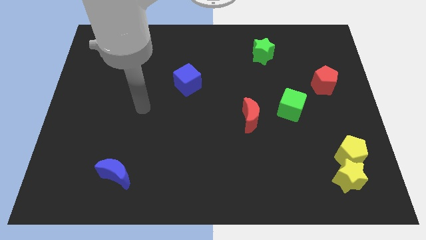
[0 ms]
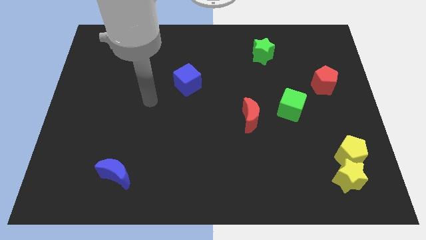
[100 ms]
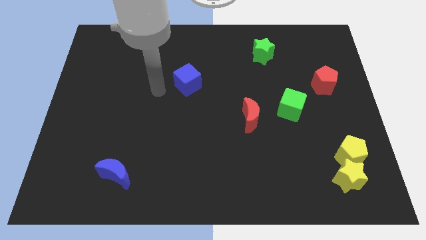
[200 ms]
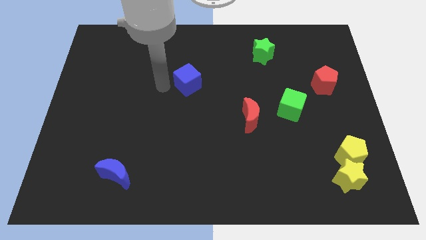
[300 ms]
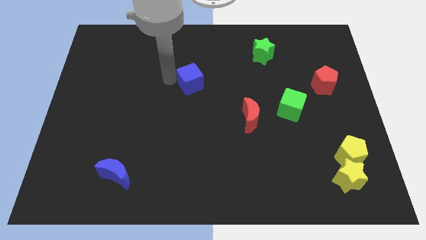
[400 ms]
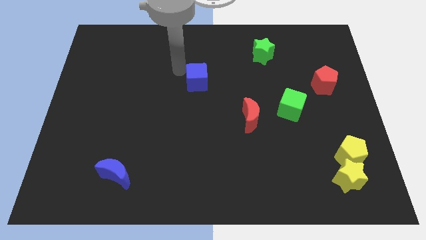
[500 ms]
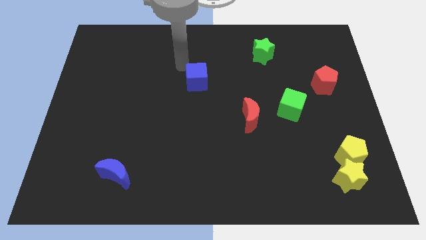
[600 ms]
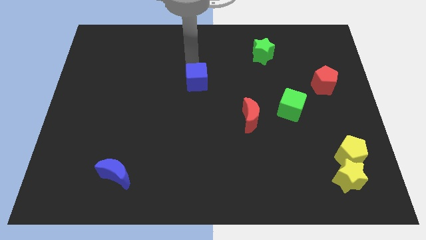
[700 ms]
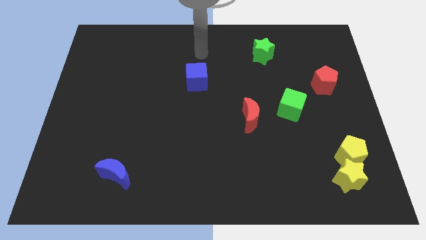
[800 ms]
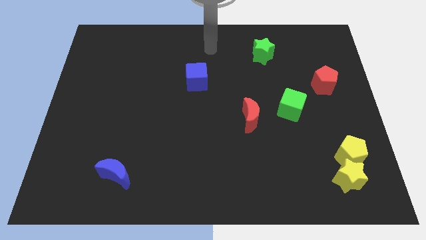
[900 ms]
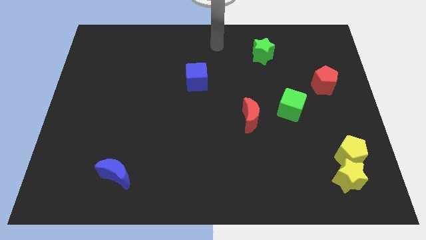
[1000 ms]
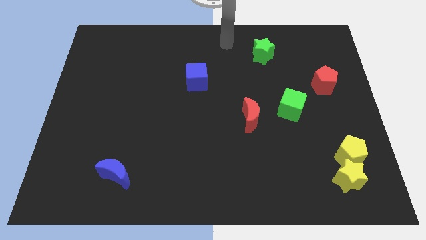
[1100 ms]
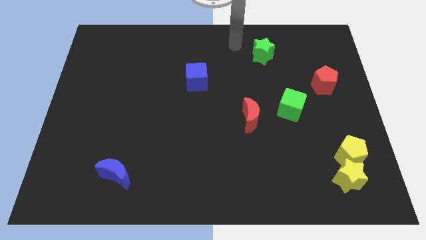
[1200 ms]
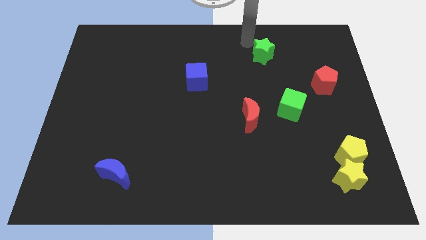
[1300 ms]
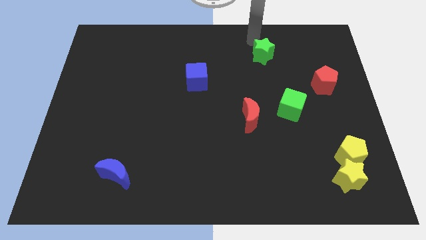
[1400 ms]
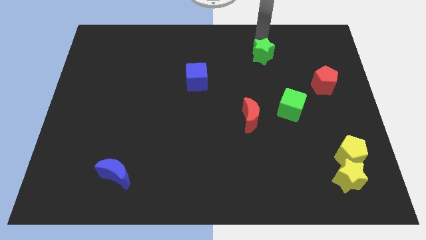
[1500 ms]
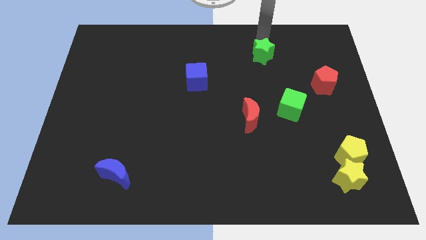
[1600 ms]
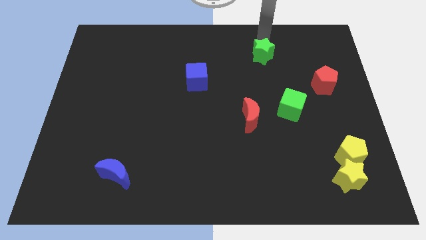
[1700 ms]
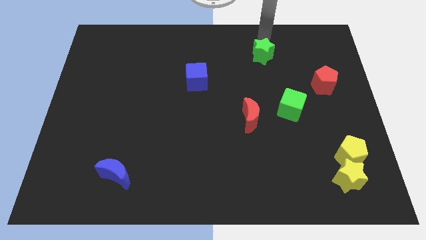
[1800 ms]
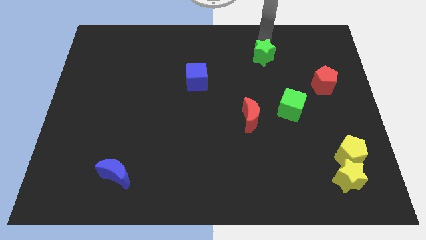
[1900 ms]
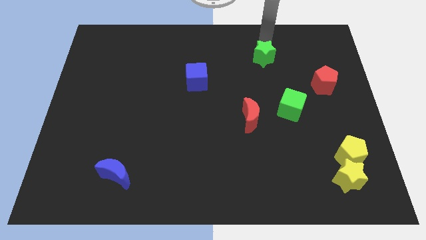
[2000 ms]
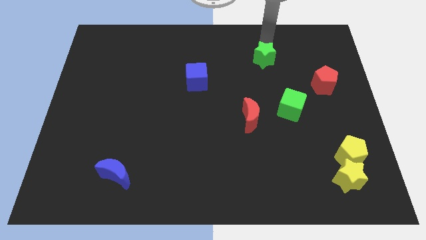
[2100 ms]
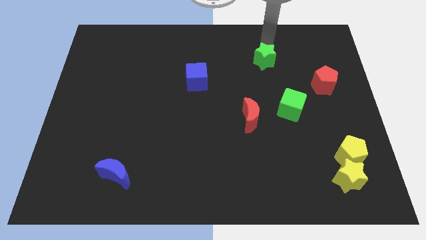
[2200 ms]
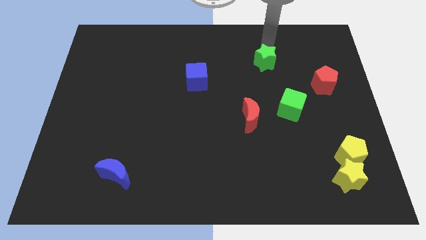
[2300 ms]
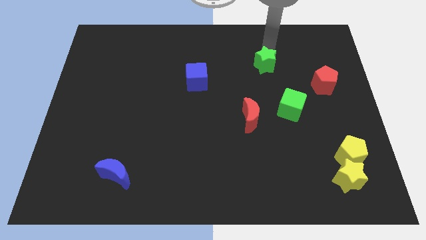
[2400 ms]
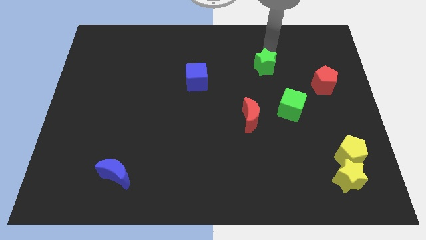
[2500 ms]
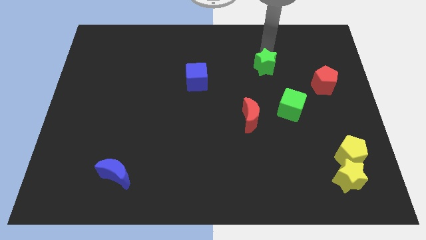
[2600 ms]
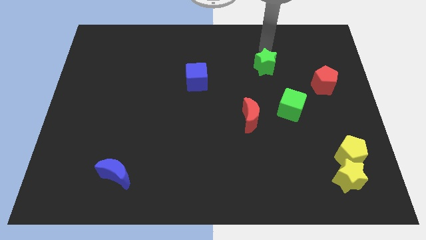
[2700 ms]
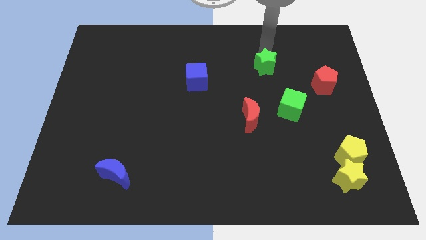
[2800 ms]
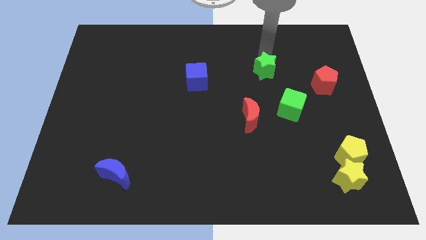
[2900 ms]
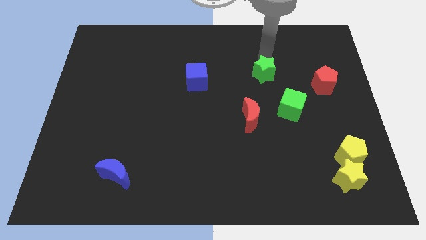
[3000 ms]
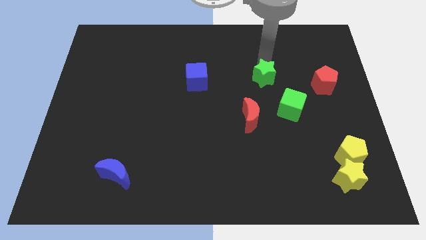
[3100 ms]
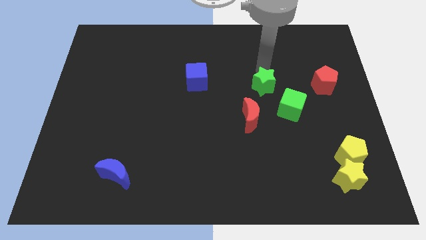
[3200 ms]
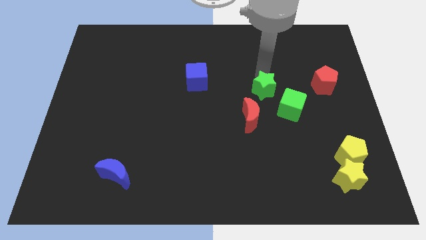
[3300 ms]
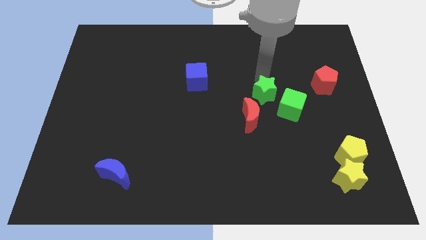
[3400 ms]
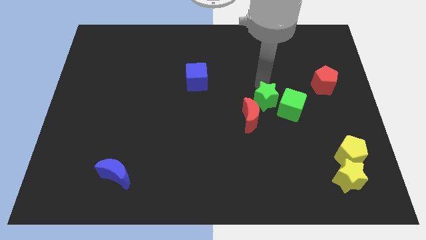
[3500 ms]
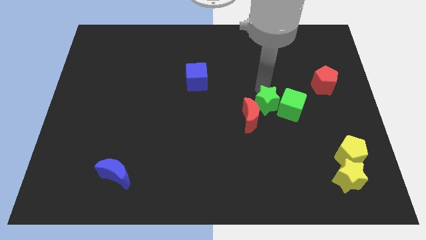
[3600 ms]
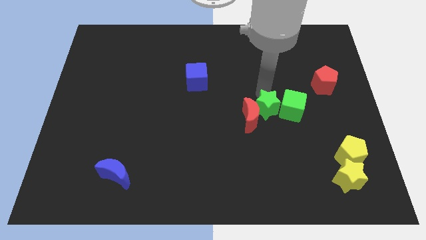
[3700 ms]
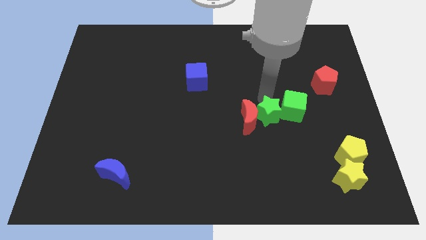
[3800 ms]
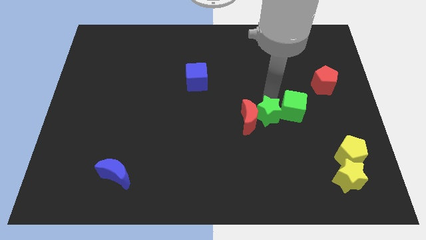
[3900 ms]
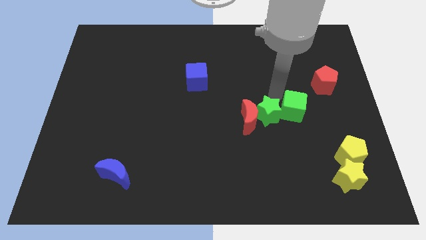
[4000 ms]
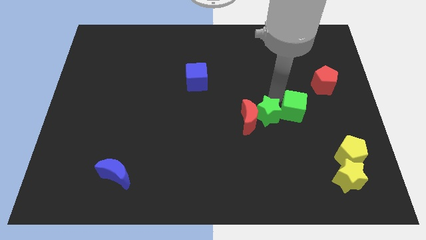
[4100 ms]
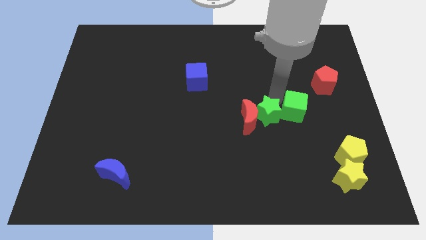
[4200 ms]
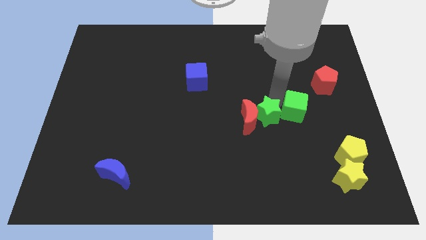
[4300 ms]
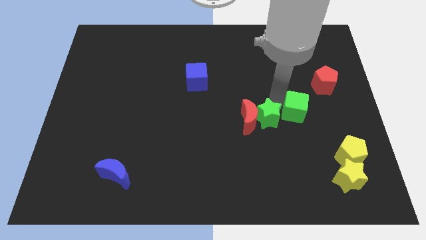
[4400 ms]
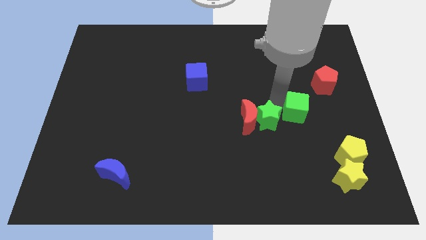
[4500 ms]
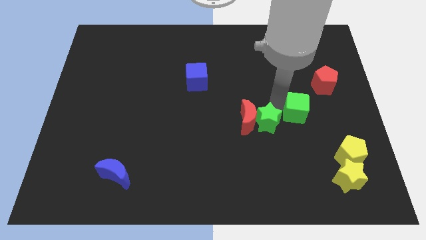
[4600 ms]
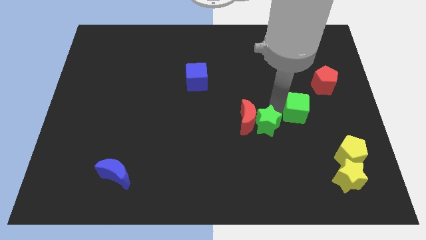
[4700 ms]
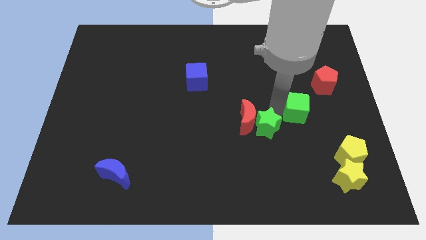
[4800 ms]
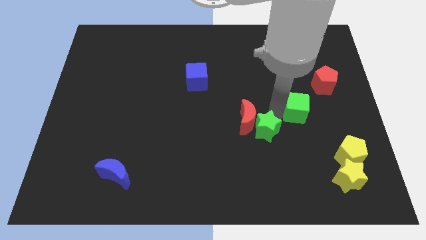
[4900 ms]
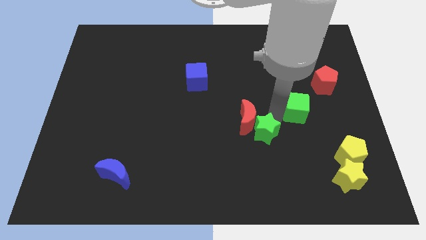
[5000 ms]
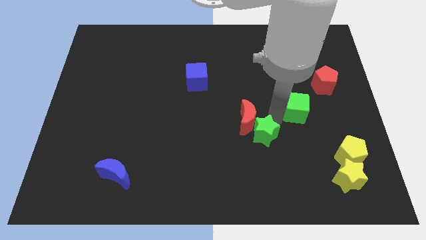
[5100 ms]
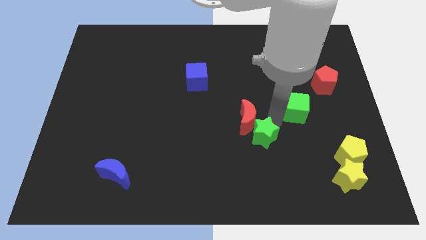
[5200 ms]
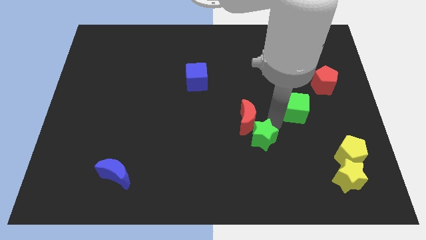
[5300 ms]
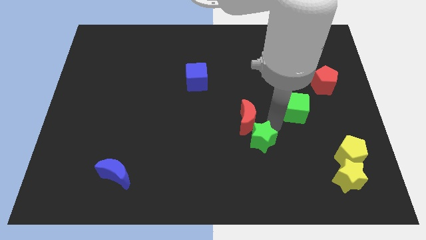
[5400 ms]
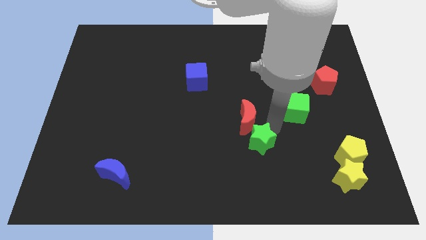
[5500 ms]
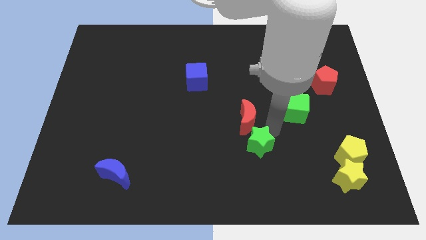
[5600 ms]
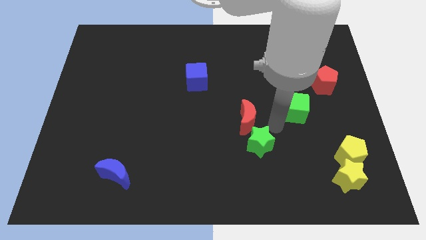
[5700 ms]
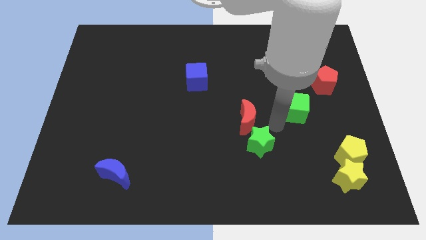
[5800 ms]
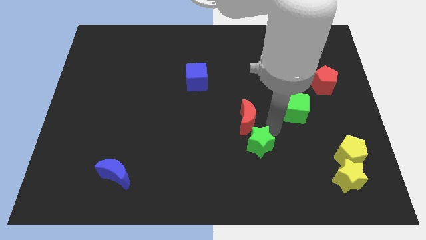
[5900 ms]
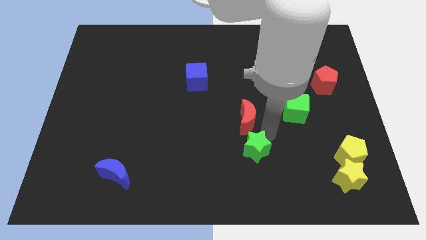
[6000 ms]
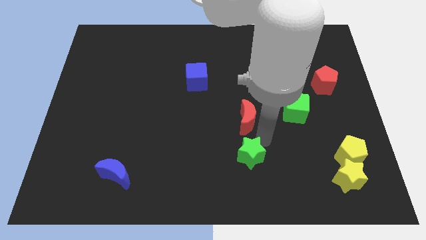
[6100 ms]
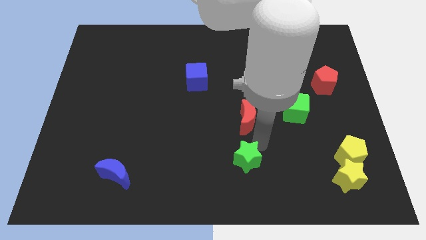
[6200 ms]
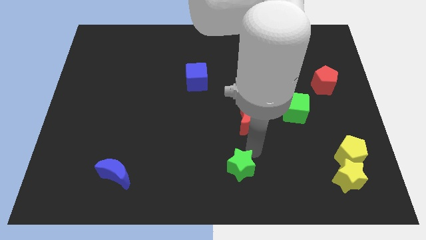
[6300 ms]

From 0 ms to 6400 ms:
put the green star to the bottom

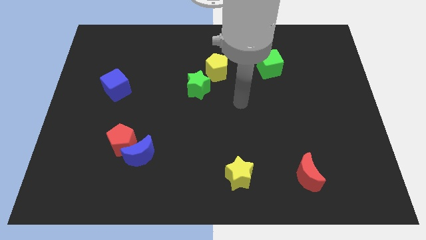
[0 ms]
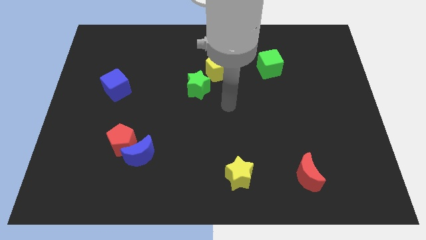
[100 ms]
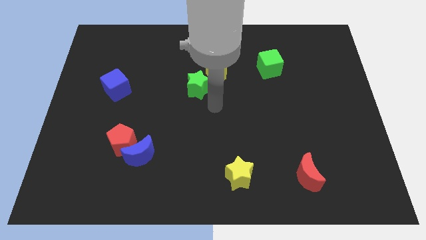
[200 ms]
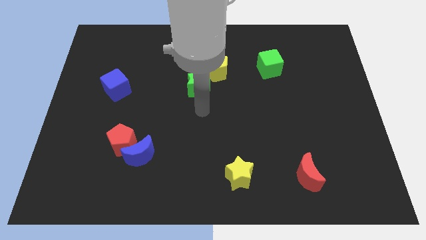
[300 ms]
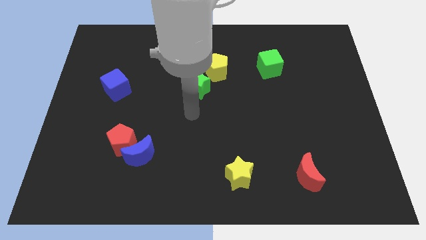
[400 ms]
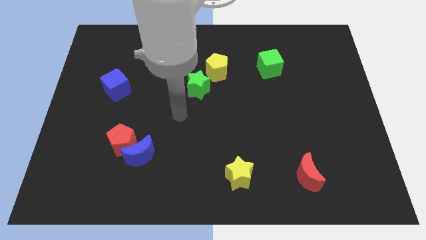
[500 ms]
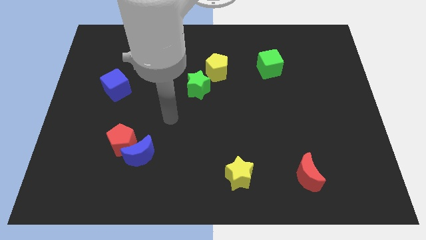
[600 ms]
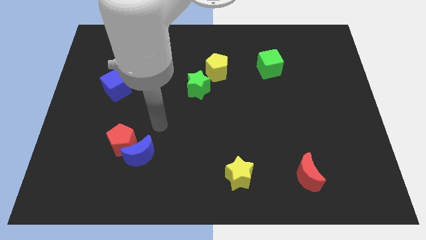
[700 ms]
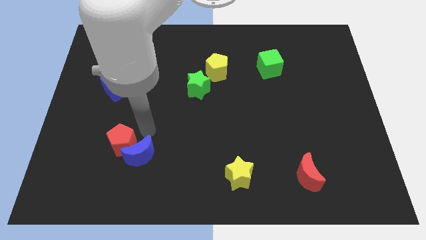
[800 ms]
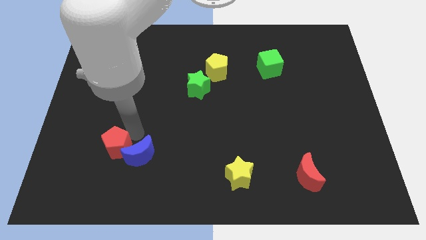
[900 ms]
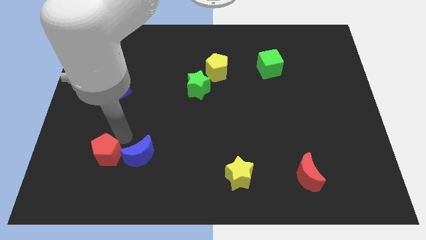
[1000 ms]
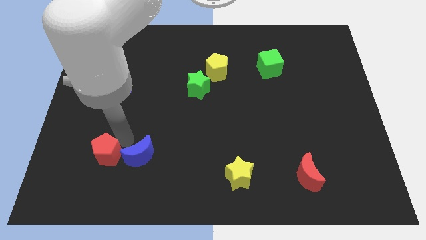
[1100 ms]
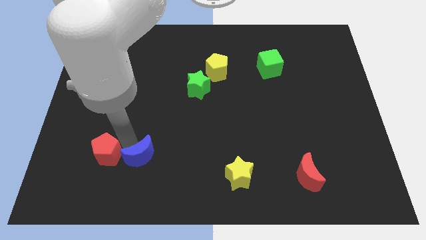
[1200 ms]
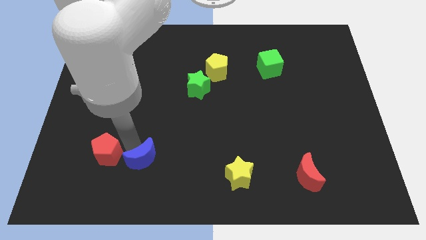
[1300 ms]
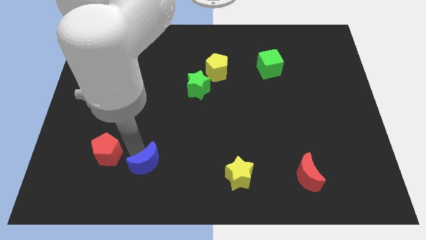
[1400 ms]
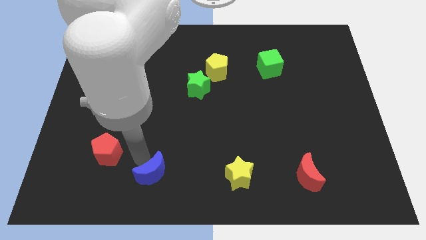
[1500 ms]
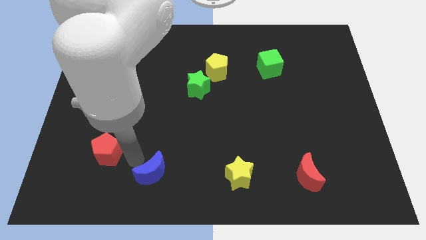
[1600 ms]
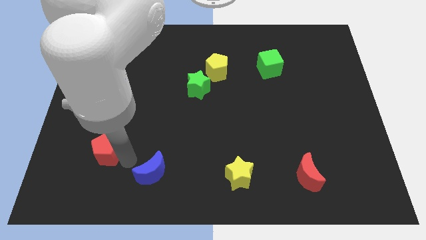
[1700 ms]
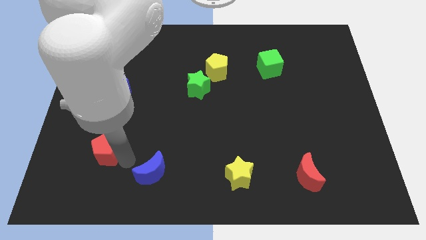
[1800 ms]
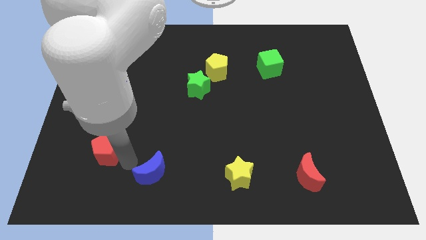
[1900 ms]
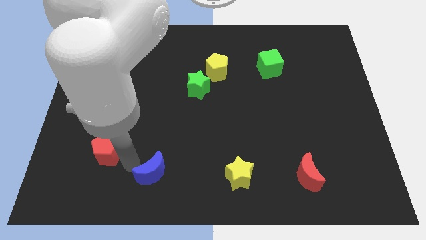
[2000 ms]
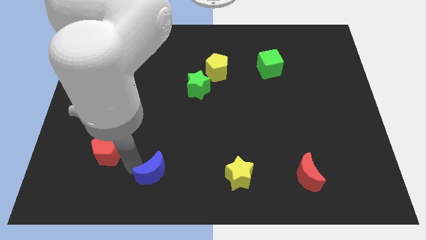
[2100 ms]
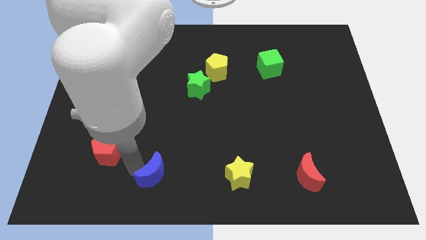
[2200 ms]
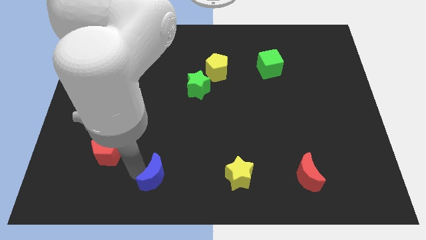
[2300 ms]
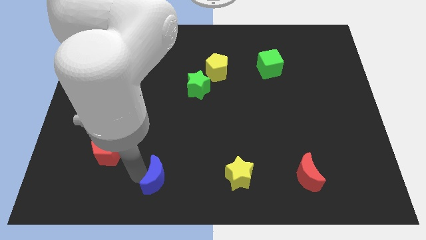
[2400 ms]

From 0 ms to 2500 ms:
put the blue moon to the bottom
